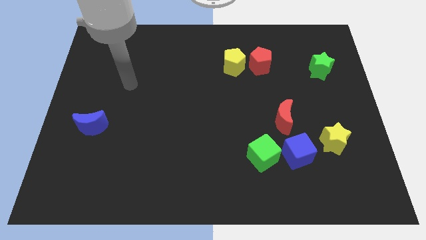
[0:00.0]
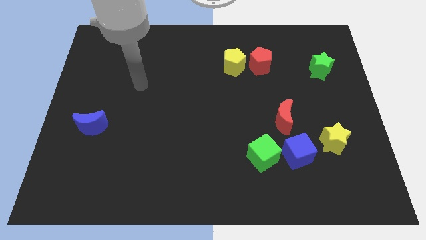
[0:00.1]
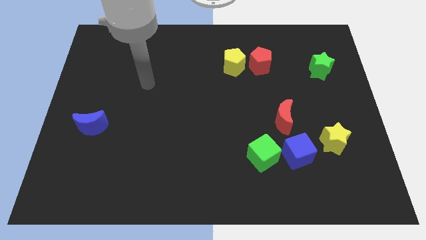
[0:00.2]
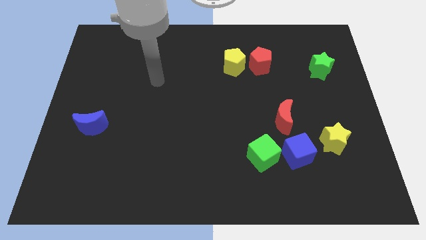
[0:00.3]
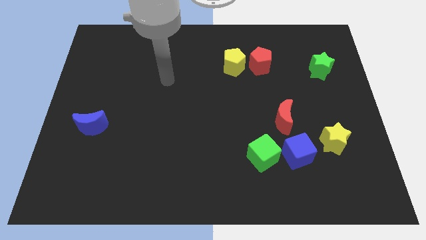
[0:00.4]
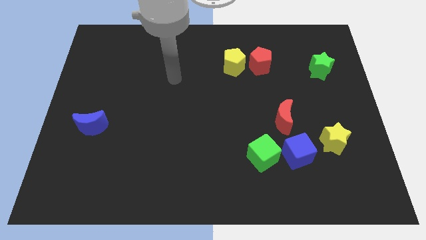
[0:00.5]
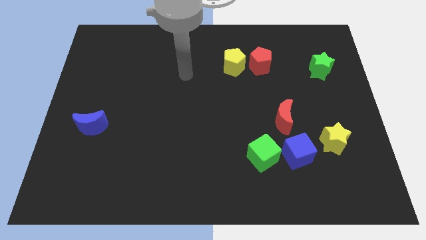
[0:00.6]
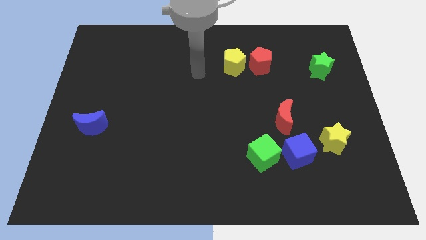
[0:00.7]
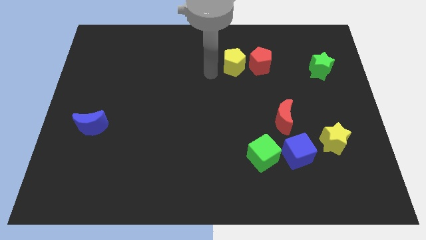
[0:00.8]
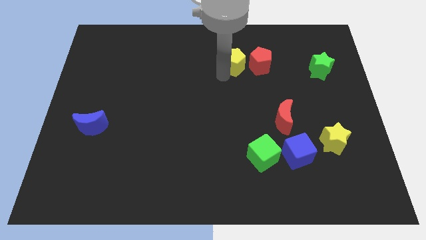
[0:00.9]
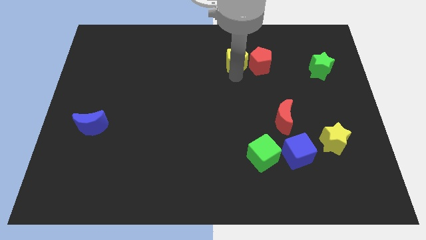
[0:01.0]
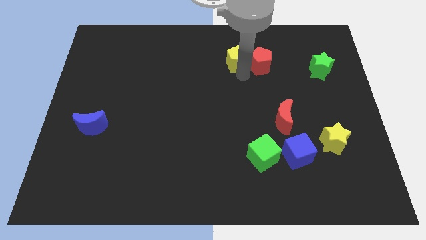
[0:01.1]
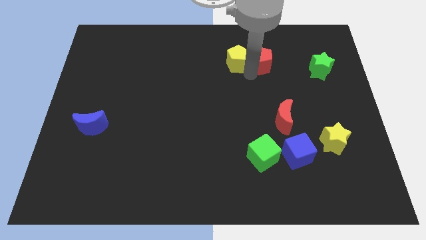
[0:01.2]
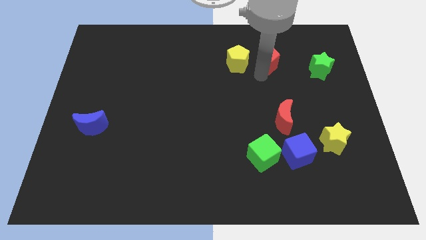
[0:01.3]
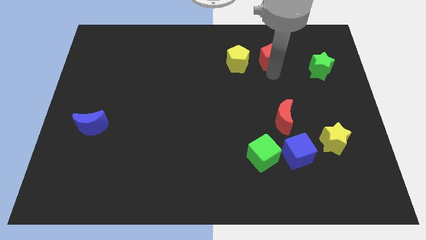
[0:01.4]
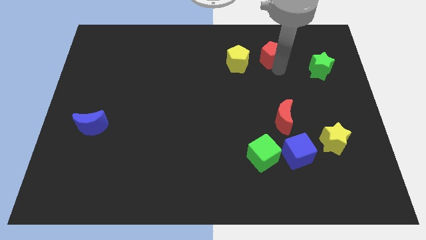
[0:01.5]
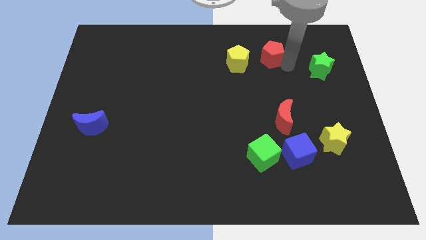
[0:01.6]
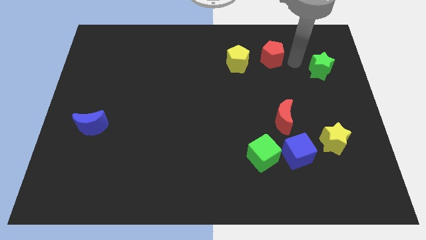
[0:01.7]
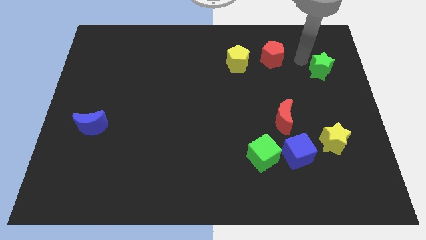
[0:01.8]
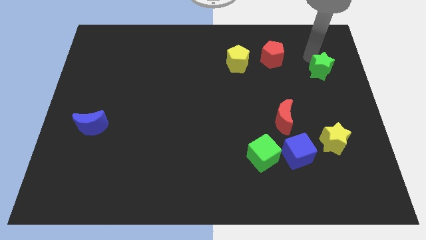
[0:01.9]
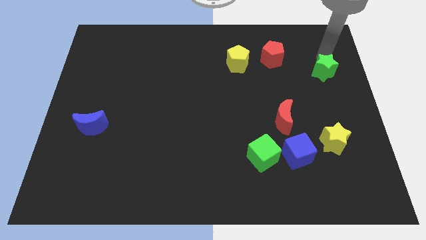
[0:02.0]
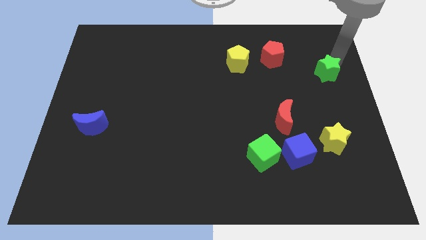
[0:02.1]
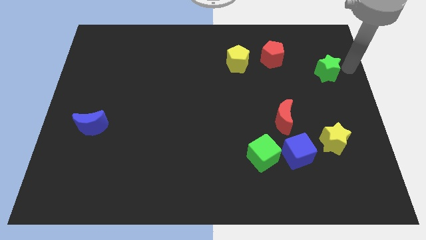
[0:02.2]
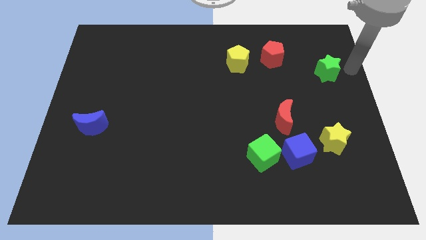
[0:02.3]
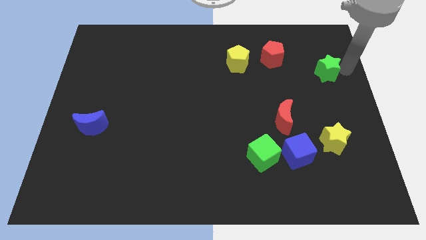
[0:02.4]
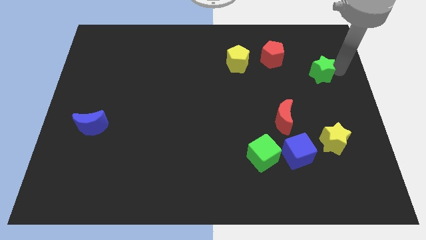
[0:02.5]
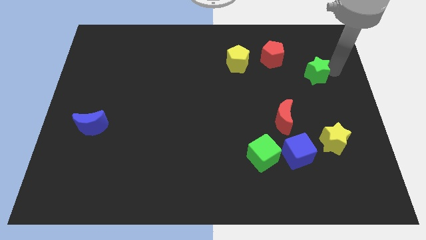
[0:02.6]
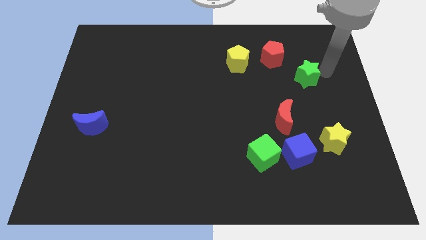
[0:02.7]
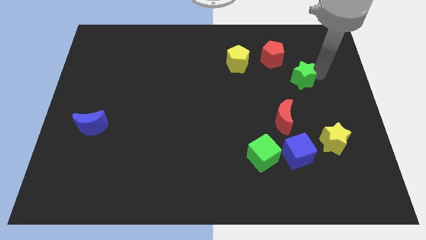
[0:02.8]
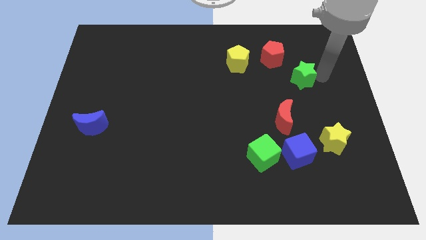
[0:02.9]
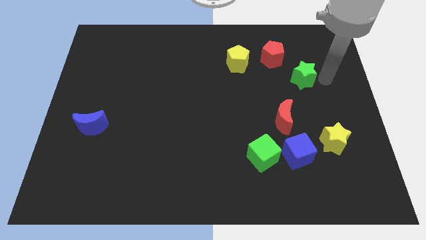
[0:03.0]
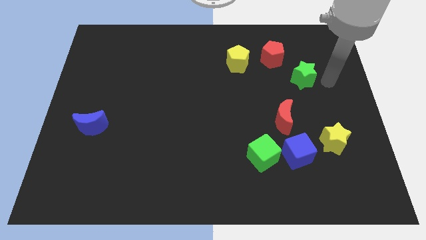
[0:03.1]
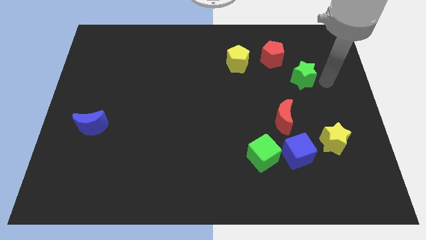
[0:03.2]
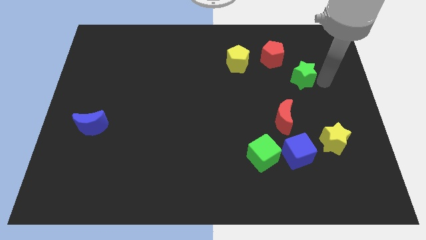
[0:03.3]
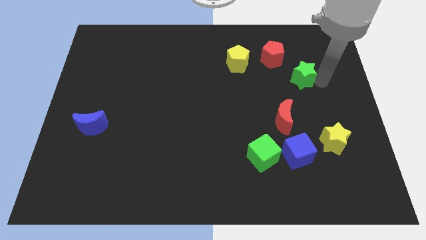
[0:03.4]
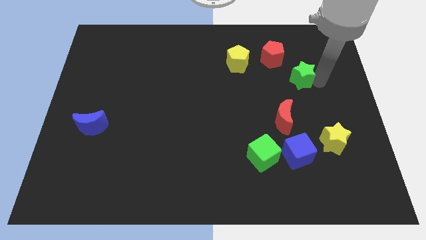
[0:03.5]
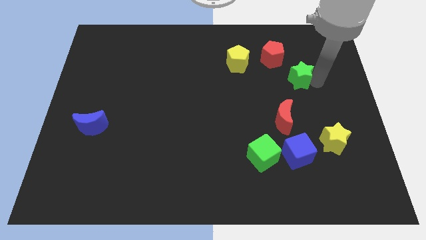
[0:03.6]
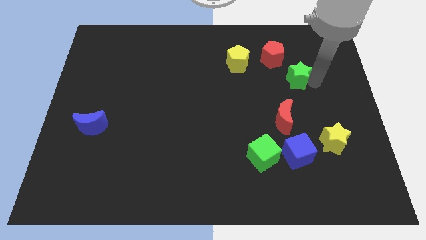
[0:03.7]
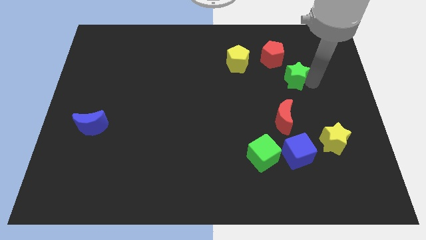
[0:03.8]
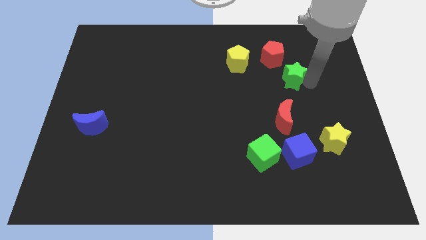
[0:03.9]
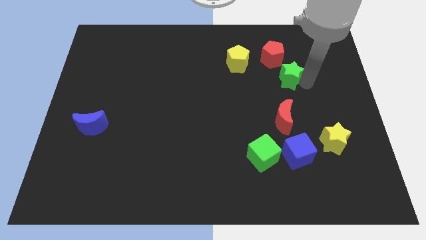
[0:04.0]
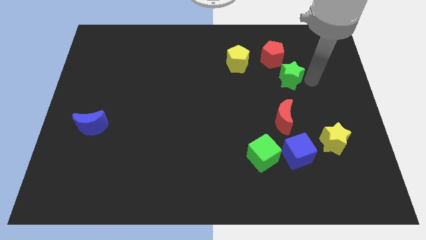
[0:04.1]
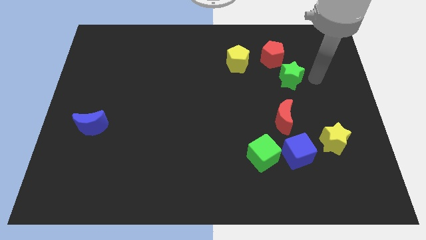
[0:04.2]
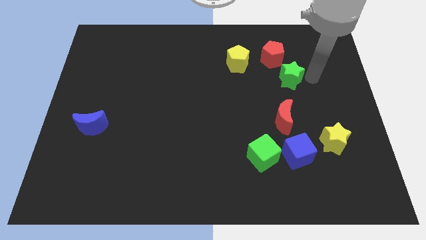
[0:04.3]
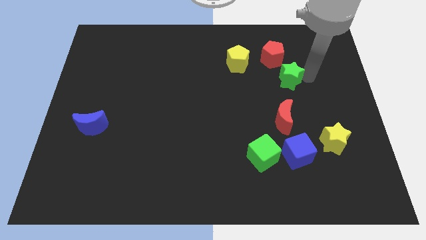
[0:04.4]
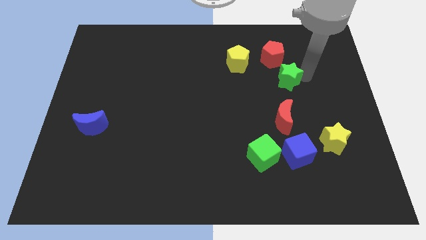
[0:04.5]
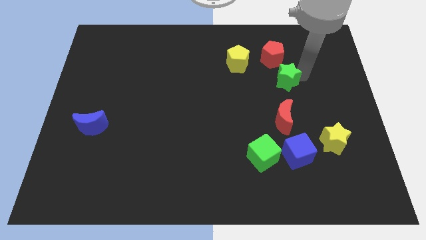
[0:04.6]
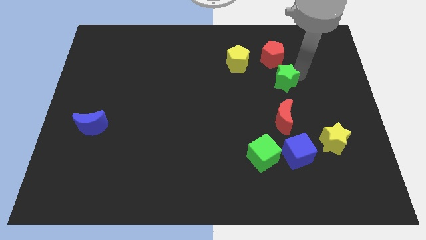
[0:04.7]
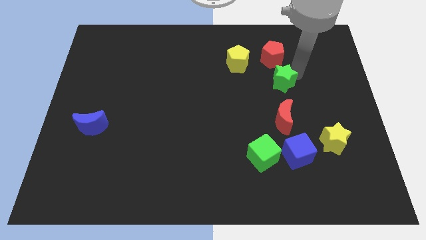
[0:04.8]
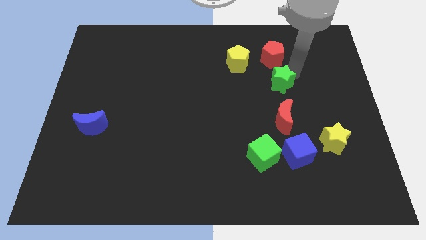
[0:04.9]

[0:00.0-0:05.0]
slide the green star diagonally down and to the right of the yellow pentagon

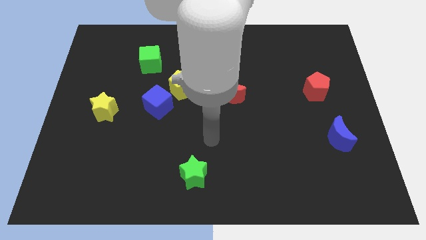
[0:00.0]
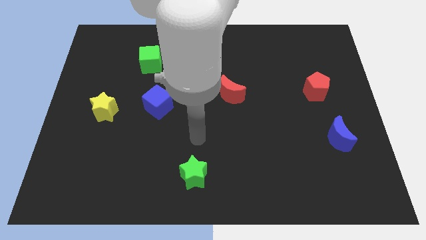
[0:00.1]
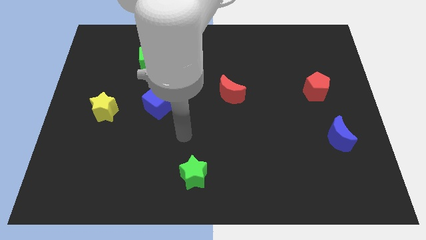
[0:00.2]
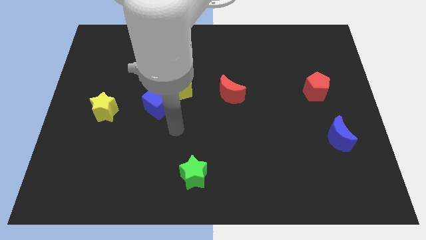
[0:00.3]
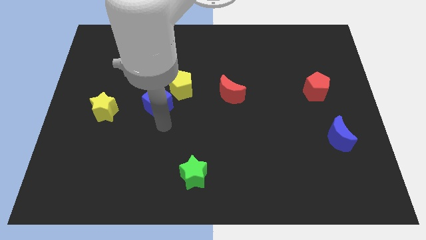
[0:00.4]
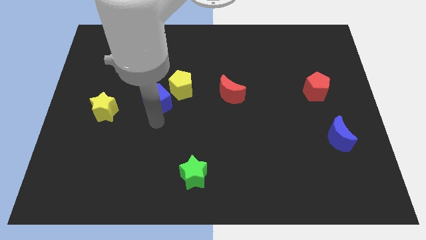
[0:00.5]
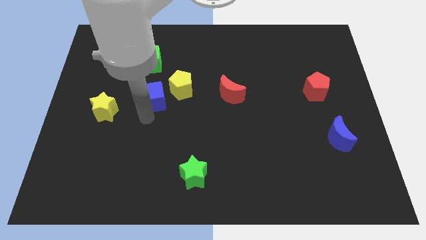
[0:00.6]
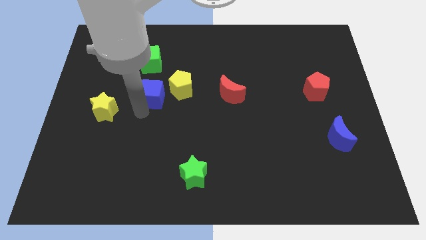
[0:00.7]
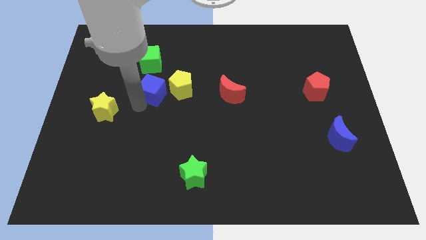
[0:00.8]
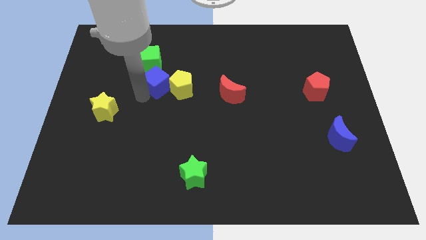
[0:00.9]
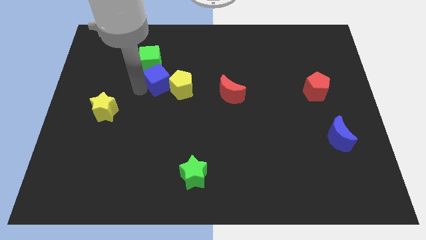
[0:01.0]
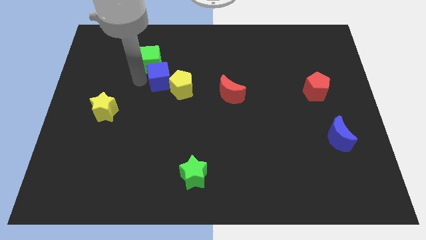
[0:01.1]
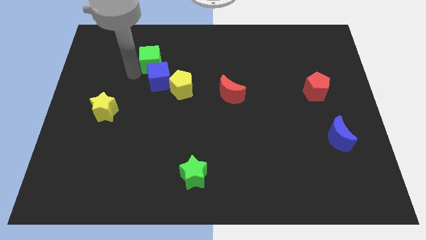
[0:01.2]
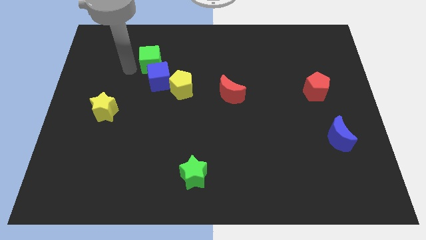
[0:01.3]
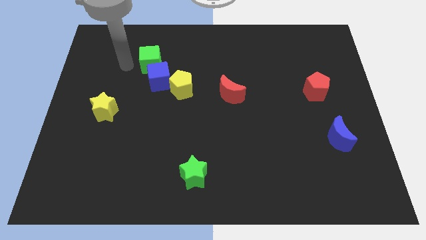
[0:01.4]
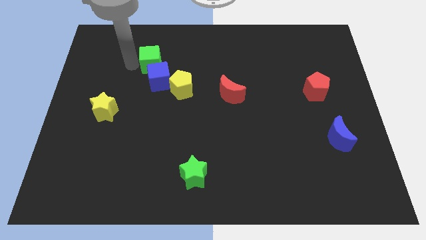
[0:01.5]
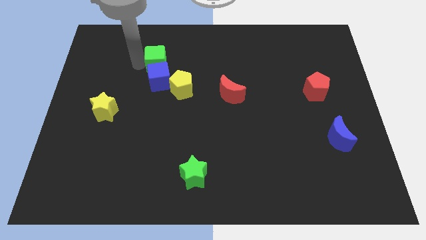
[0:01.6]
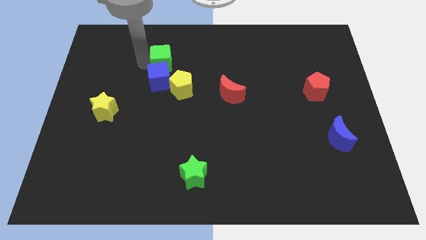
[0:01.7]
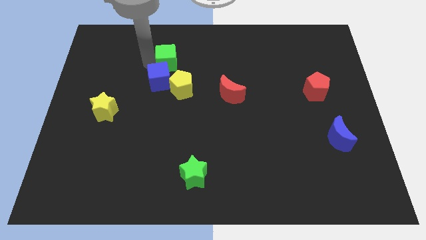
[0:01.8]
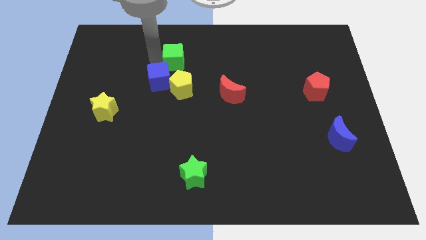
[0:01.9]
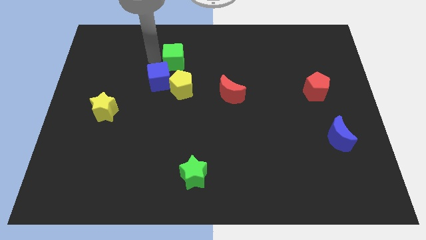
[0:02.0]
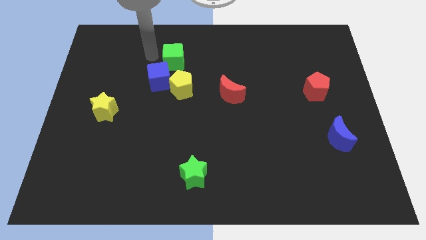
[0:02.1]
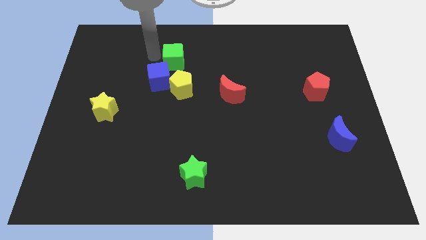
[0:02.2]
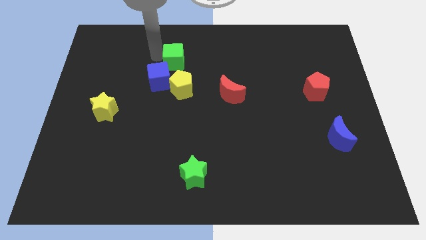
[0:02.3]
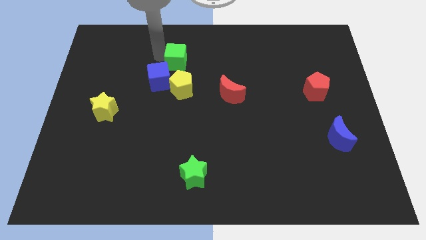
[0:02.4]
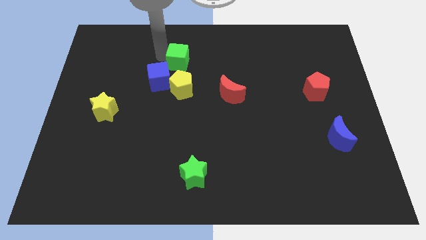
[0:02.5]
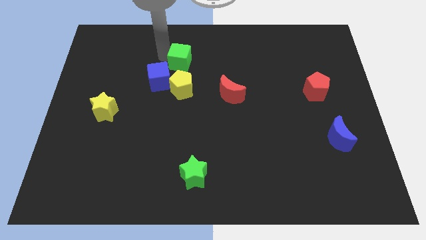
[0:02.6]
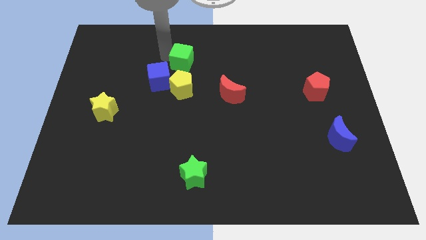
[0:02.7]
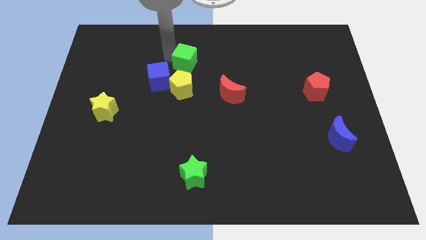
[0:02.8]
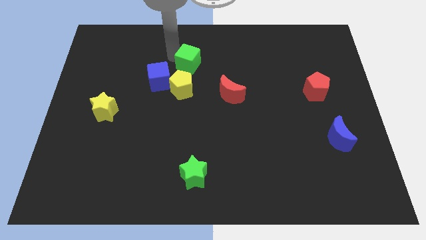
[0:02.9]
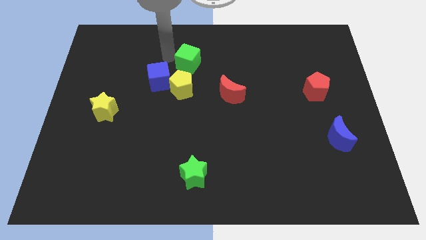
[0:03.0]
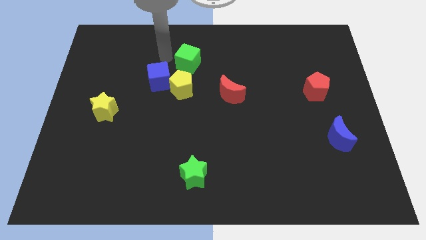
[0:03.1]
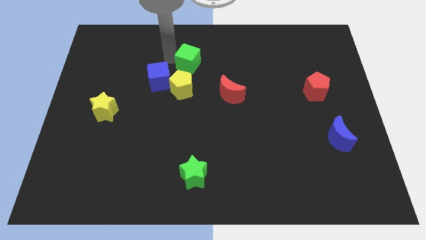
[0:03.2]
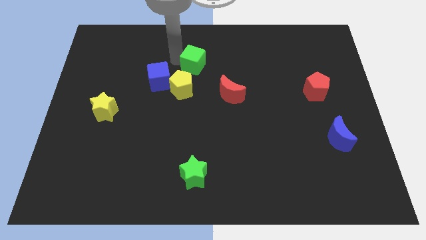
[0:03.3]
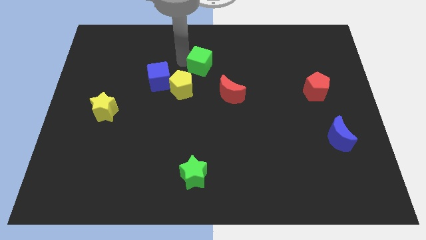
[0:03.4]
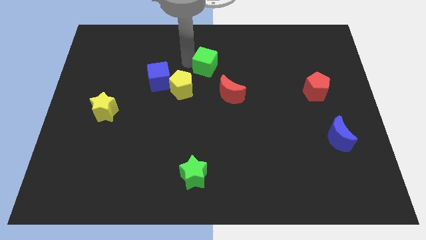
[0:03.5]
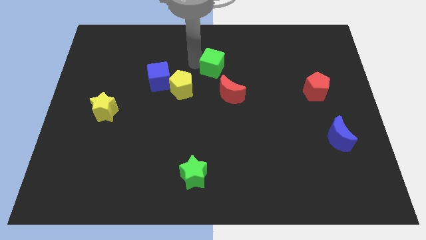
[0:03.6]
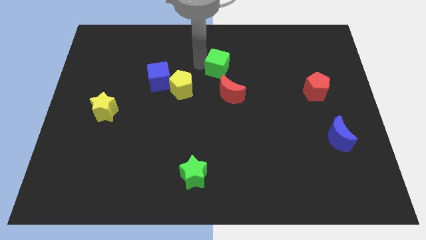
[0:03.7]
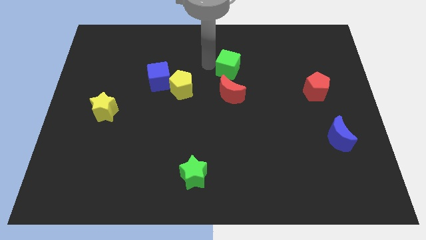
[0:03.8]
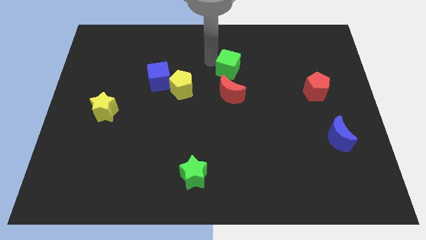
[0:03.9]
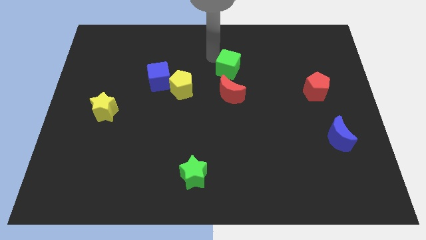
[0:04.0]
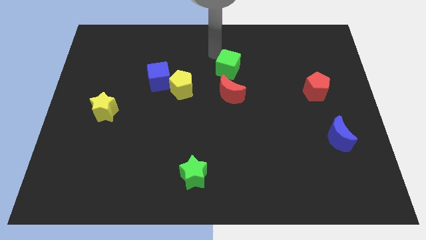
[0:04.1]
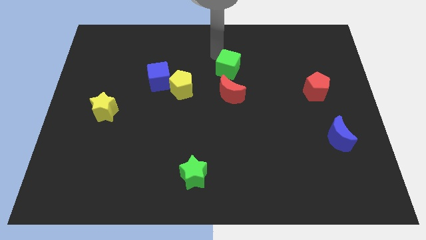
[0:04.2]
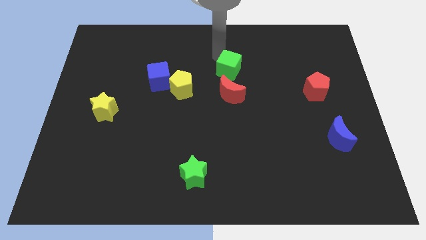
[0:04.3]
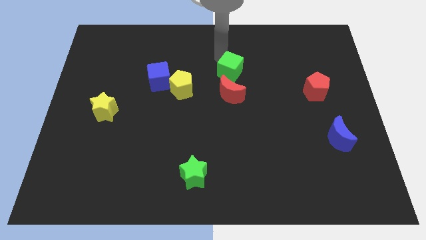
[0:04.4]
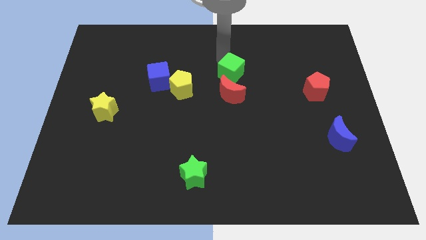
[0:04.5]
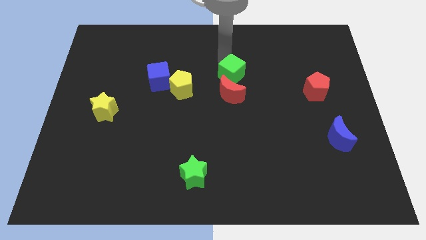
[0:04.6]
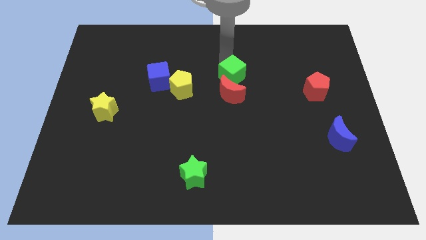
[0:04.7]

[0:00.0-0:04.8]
slide the green cube just right of the yellow pentagon
